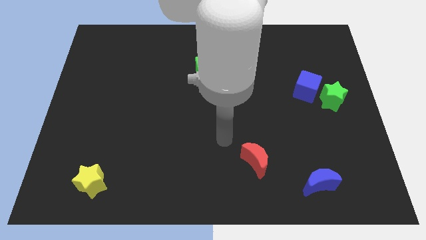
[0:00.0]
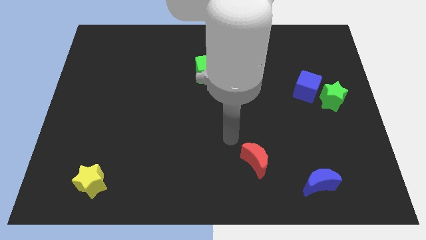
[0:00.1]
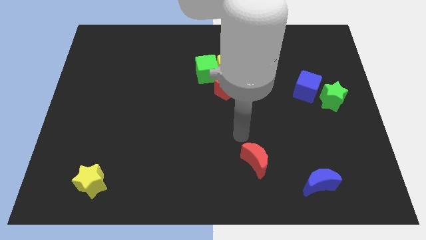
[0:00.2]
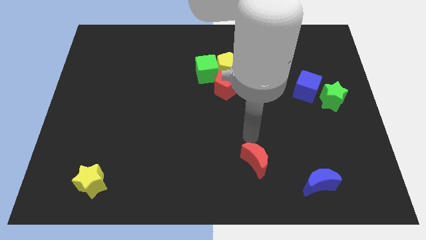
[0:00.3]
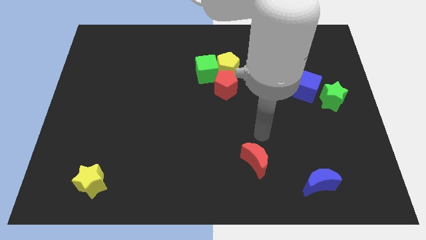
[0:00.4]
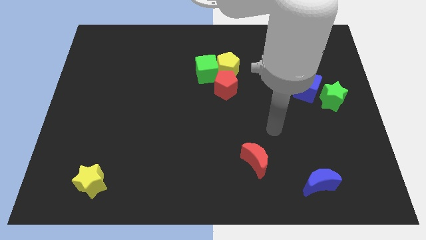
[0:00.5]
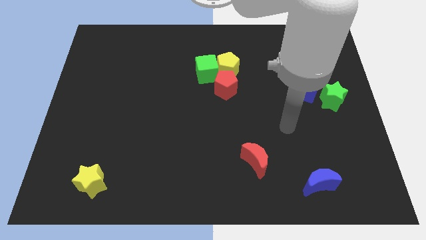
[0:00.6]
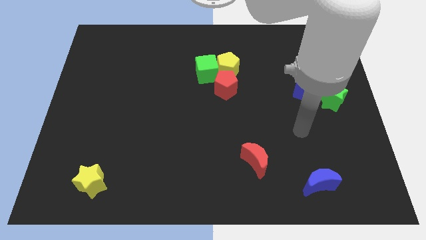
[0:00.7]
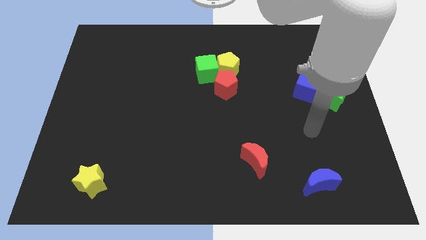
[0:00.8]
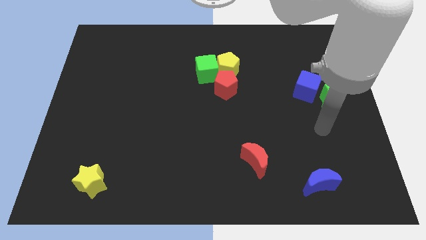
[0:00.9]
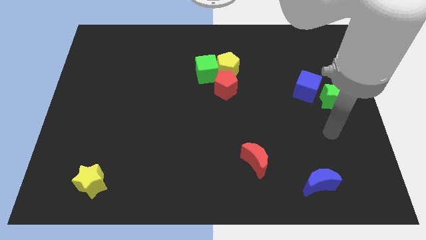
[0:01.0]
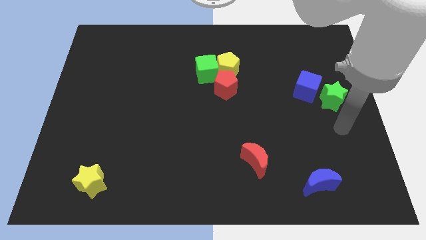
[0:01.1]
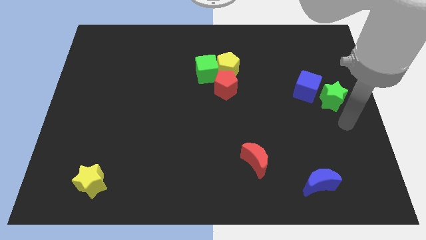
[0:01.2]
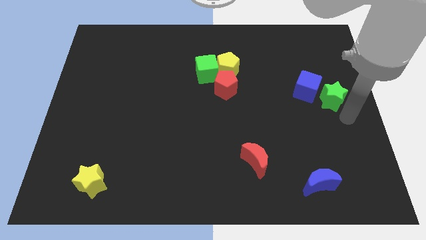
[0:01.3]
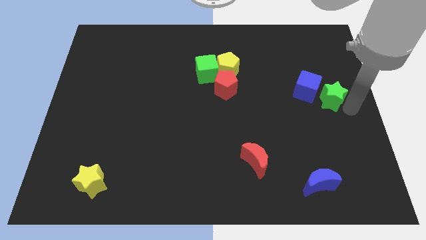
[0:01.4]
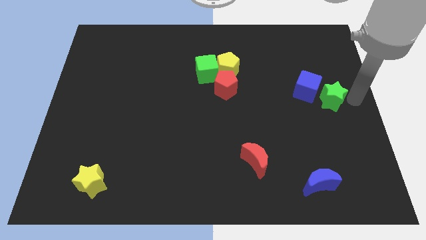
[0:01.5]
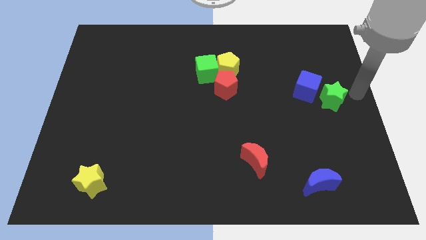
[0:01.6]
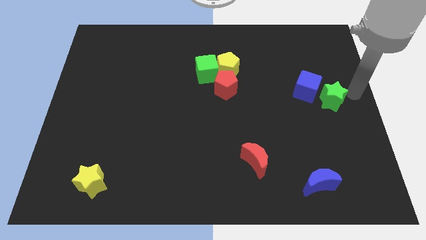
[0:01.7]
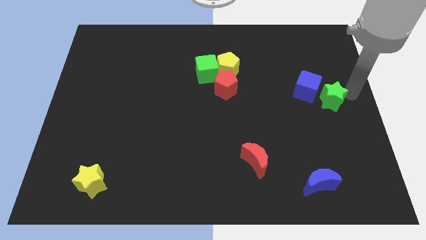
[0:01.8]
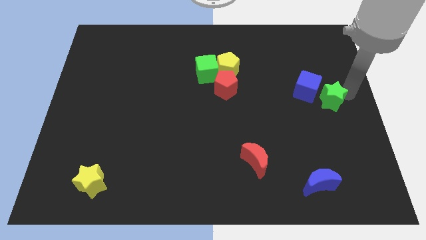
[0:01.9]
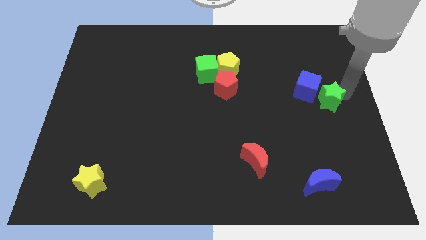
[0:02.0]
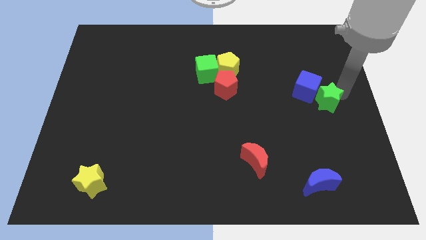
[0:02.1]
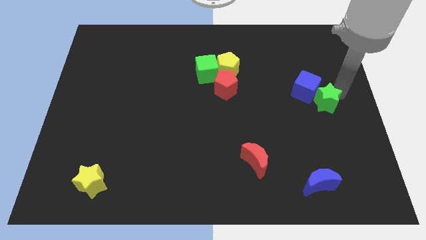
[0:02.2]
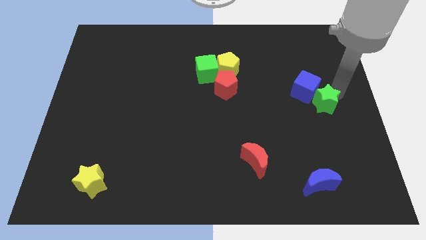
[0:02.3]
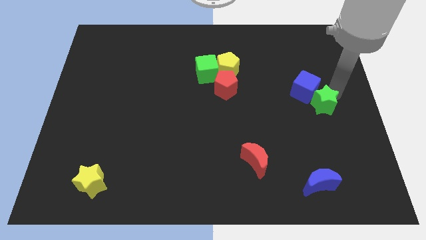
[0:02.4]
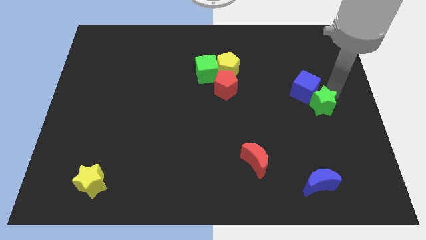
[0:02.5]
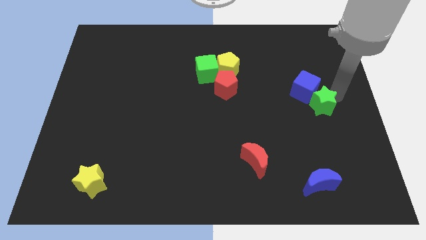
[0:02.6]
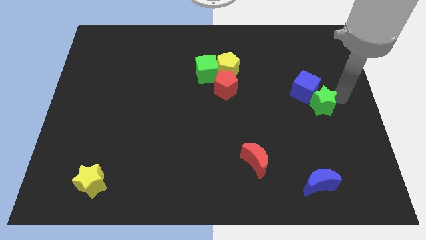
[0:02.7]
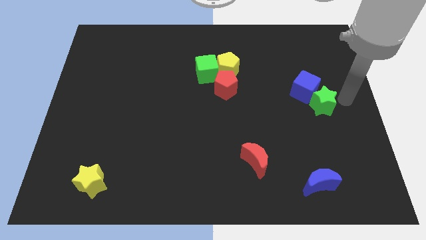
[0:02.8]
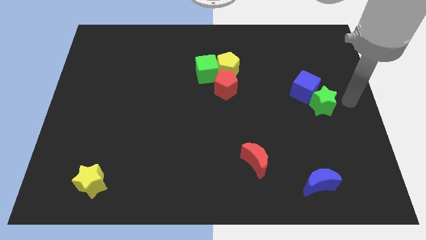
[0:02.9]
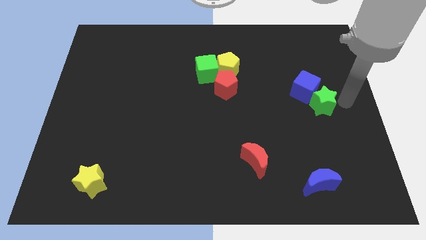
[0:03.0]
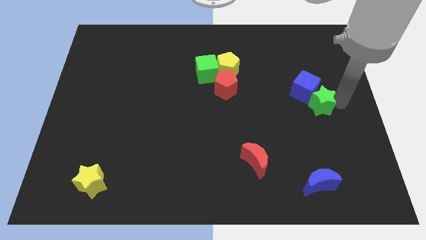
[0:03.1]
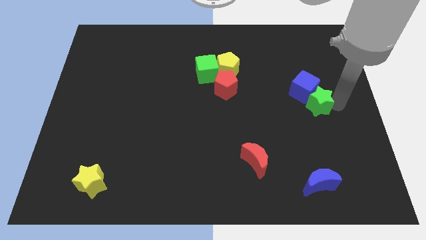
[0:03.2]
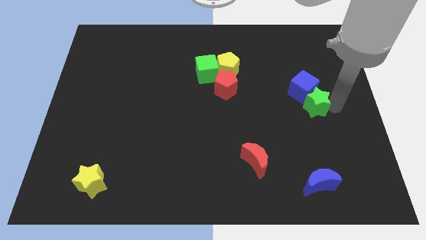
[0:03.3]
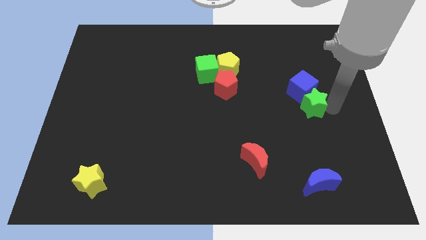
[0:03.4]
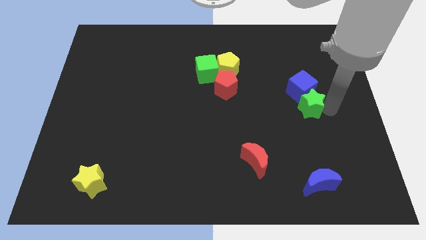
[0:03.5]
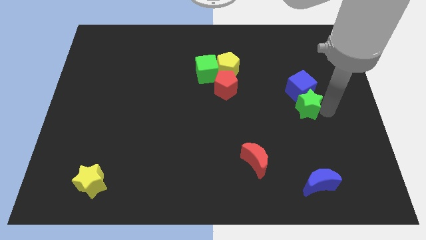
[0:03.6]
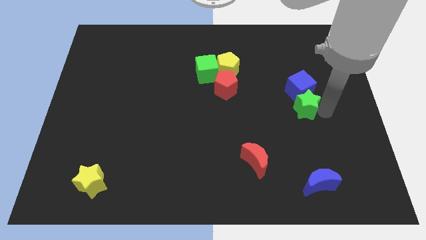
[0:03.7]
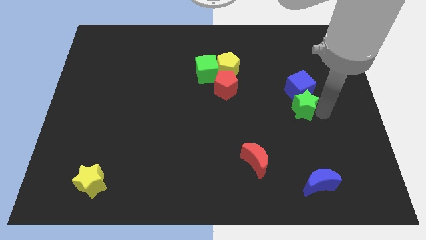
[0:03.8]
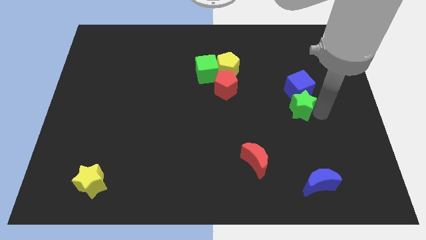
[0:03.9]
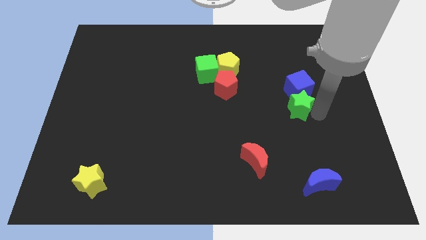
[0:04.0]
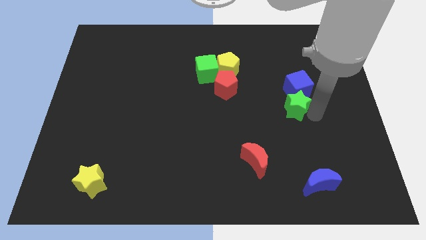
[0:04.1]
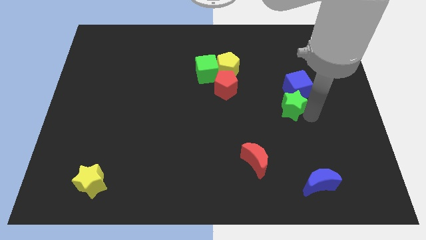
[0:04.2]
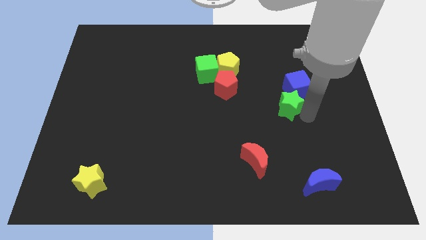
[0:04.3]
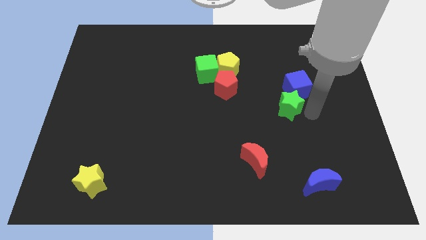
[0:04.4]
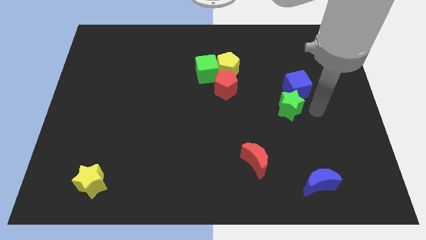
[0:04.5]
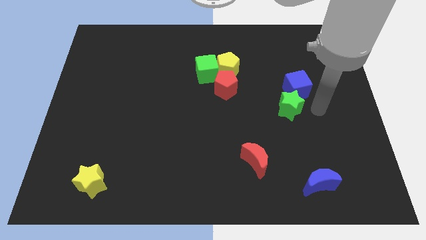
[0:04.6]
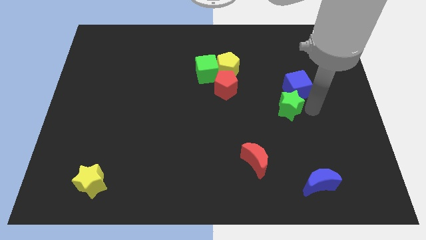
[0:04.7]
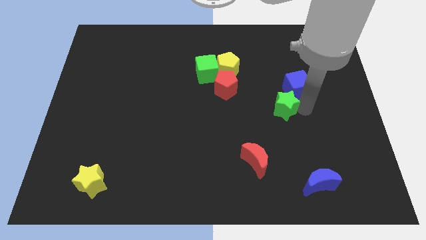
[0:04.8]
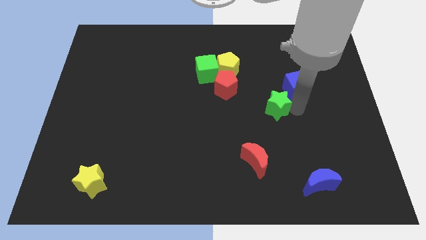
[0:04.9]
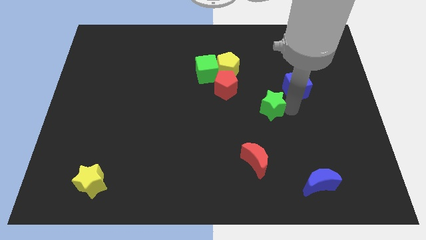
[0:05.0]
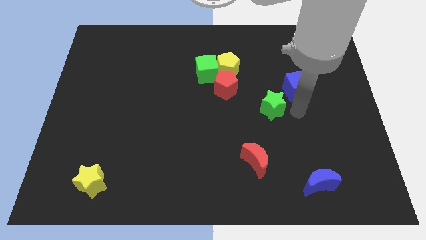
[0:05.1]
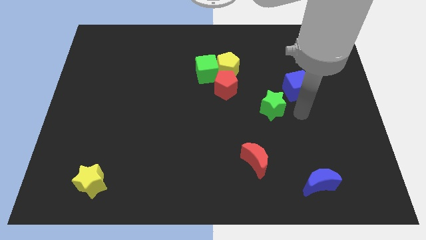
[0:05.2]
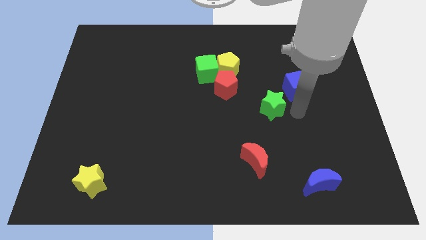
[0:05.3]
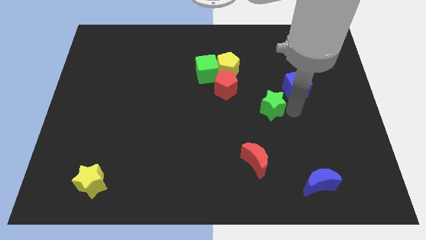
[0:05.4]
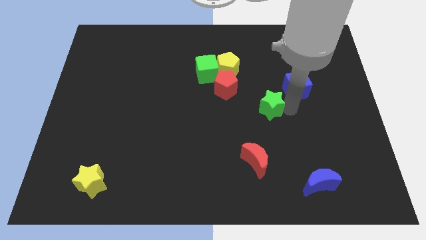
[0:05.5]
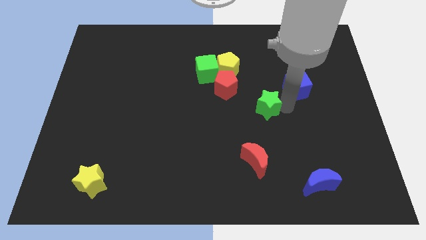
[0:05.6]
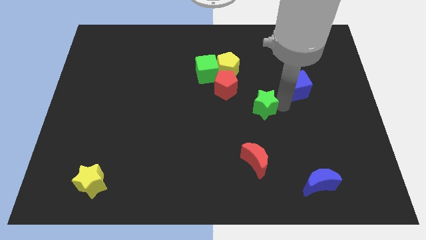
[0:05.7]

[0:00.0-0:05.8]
put the green star to the center of the board

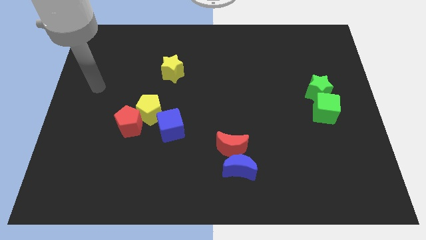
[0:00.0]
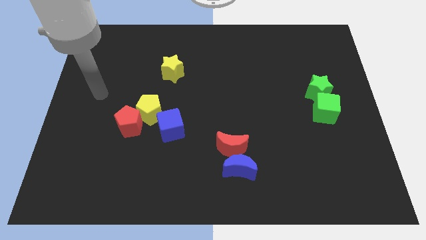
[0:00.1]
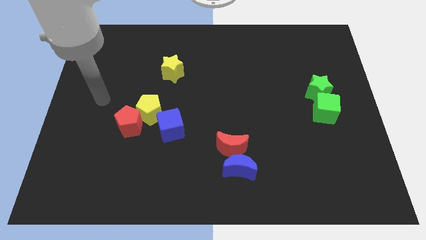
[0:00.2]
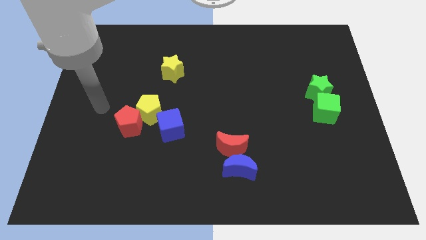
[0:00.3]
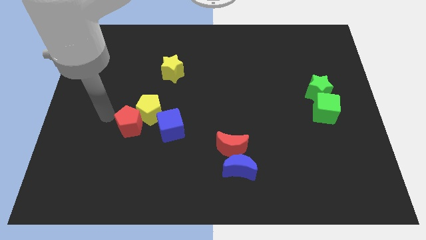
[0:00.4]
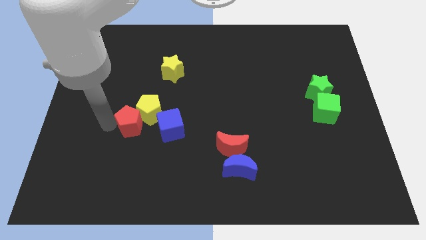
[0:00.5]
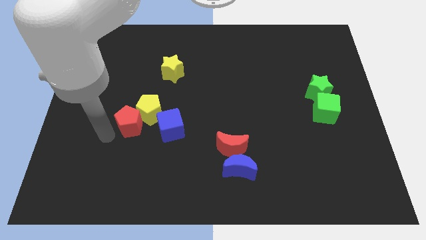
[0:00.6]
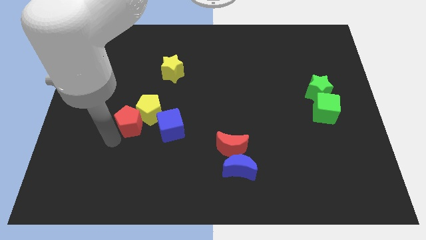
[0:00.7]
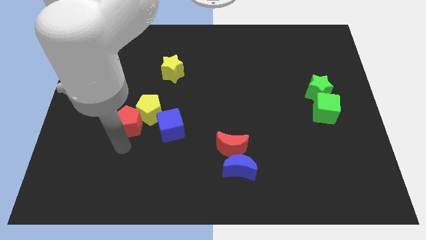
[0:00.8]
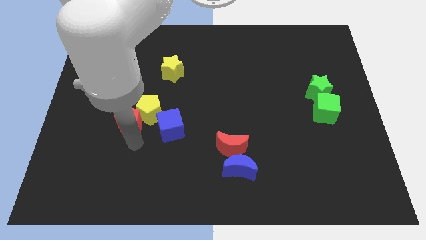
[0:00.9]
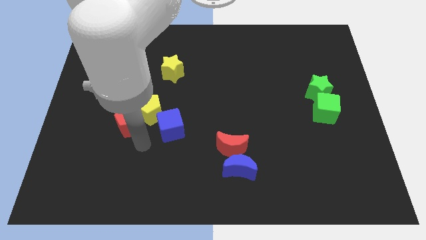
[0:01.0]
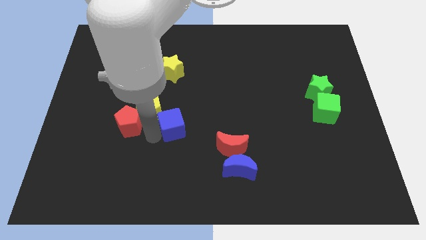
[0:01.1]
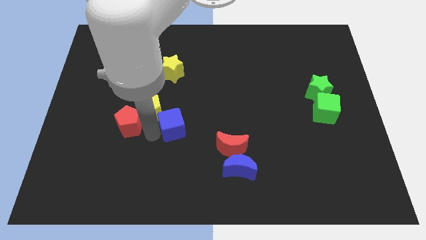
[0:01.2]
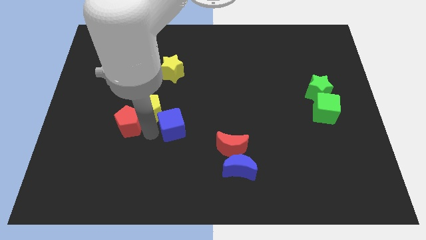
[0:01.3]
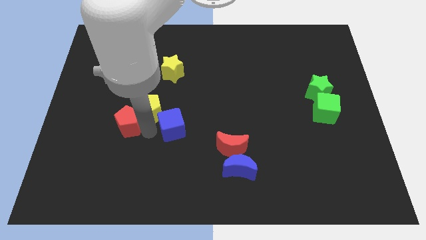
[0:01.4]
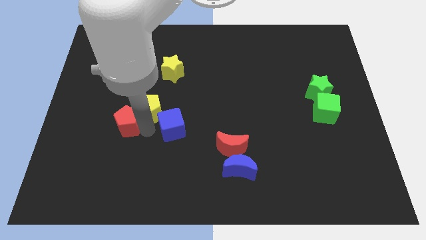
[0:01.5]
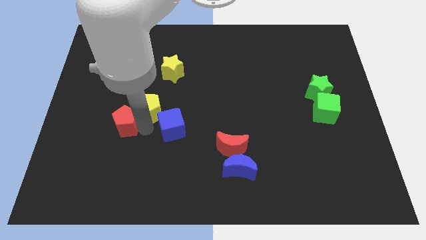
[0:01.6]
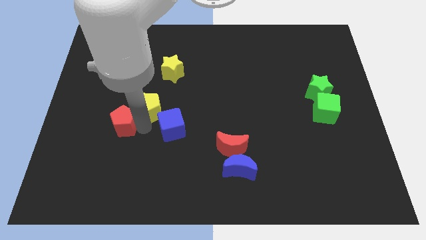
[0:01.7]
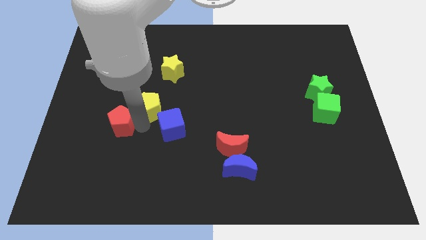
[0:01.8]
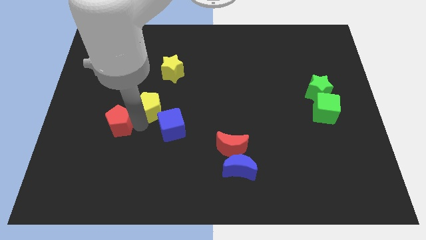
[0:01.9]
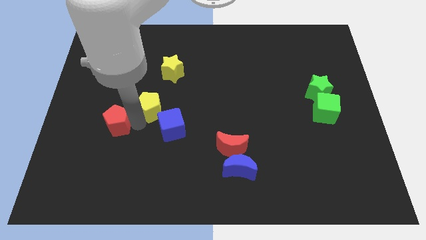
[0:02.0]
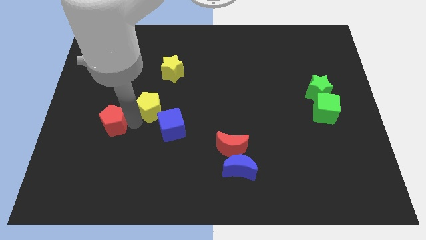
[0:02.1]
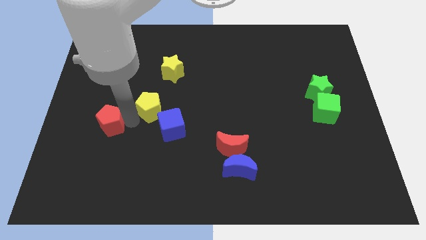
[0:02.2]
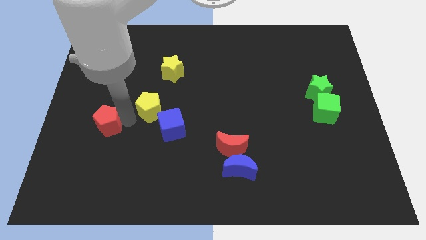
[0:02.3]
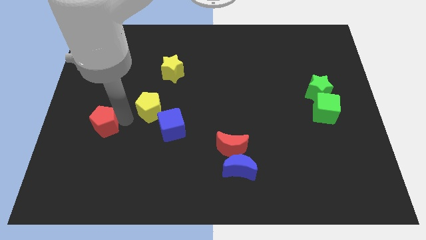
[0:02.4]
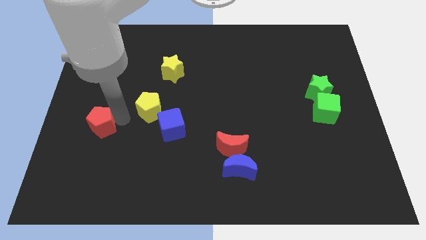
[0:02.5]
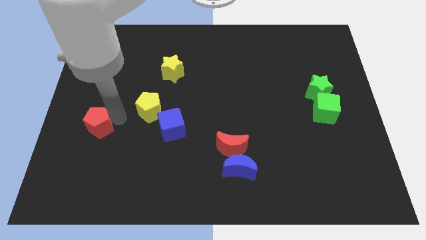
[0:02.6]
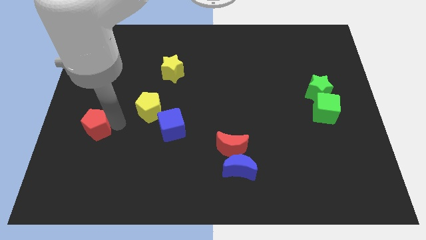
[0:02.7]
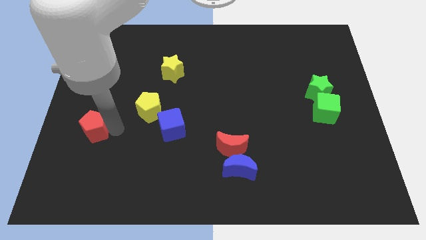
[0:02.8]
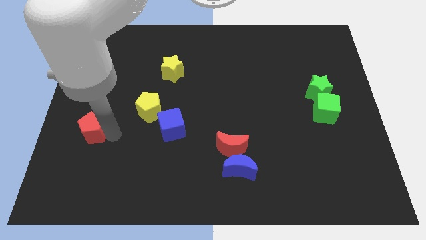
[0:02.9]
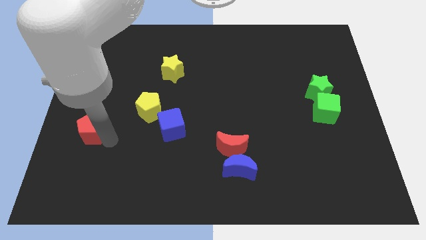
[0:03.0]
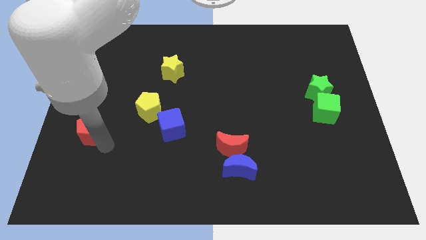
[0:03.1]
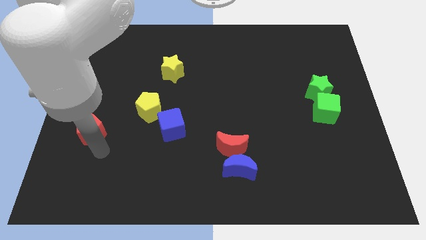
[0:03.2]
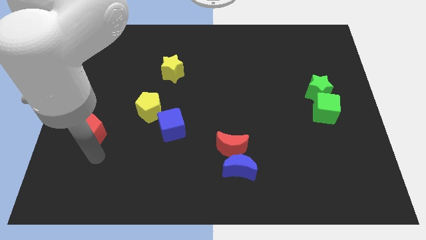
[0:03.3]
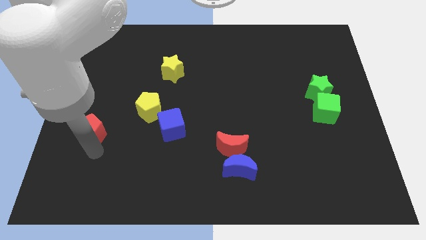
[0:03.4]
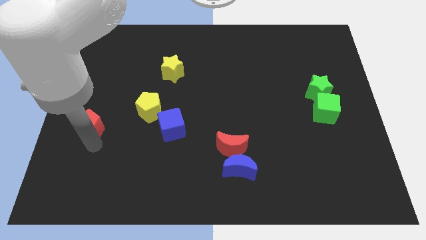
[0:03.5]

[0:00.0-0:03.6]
put the red pentagon to the left side of the board
